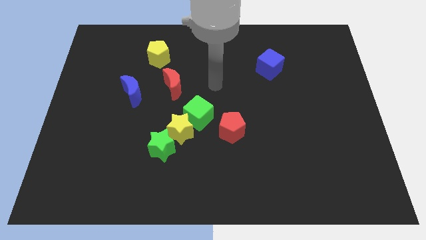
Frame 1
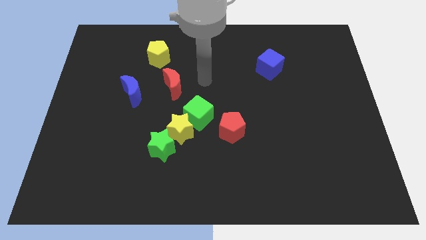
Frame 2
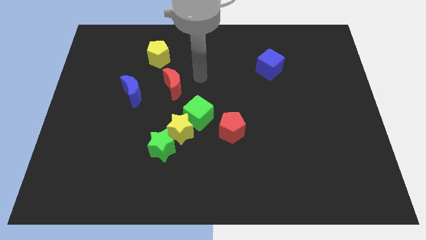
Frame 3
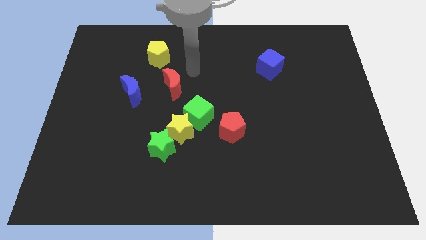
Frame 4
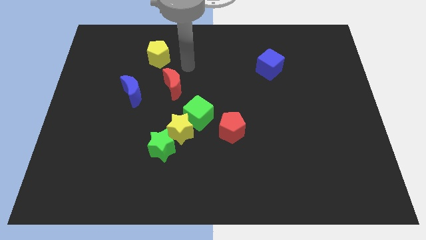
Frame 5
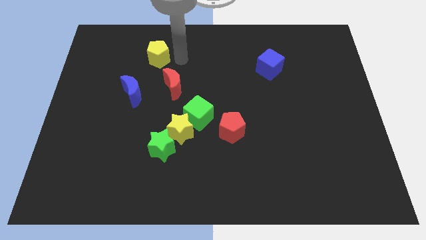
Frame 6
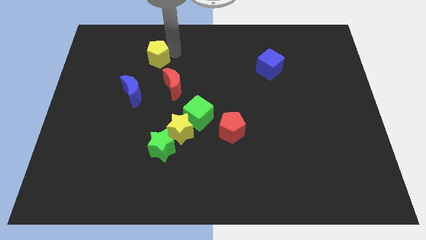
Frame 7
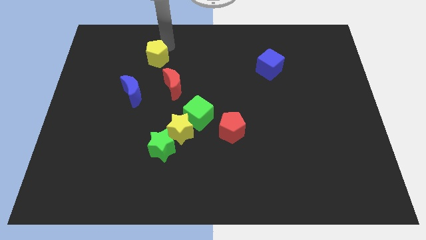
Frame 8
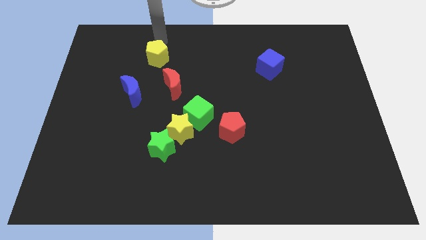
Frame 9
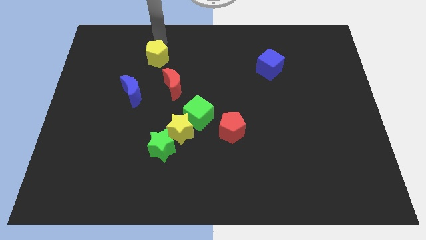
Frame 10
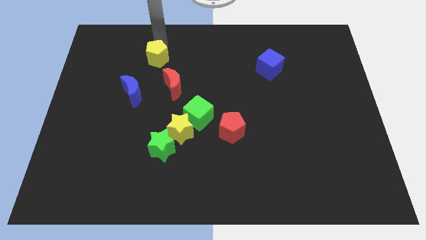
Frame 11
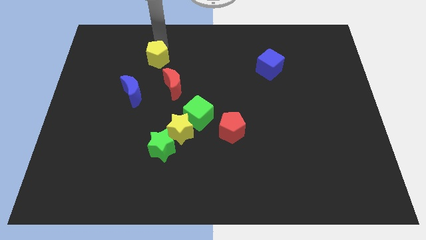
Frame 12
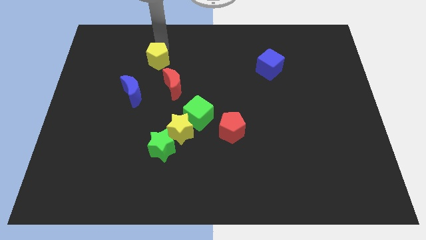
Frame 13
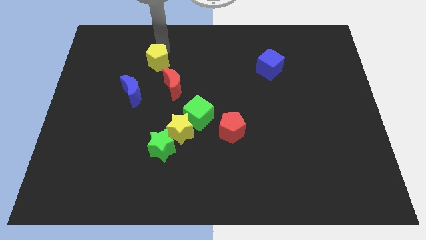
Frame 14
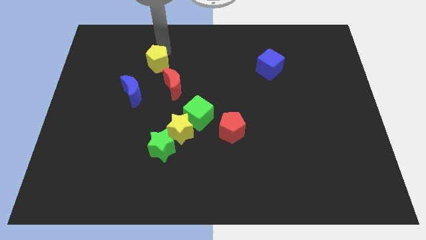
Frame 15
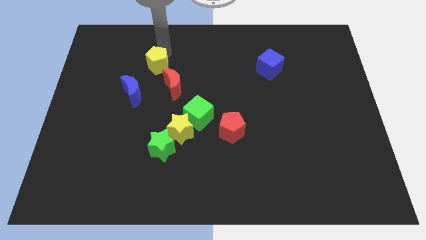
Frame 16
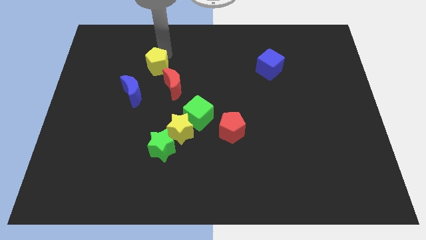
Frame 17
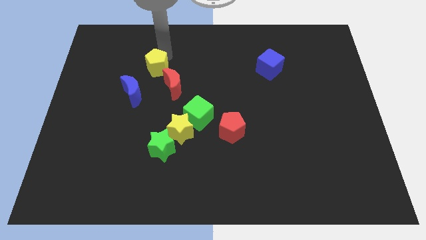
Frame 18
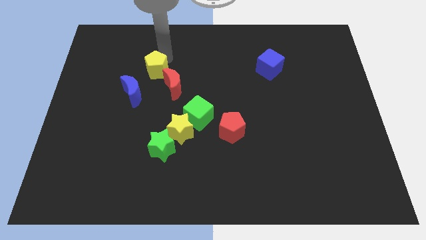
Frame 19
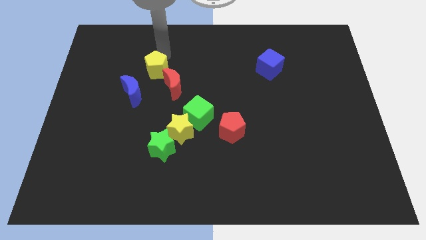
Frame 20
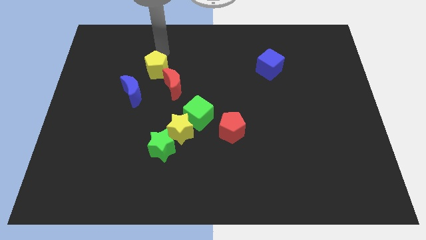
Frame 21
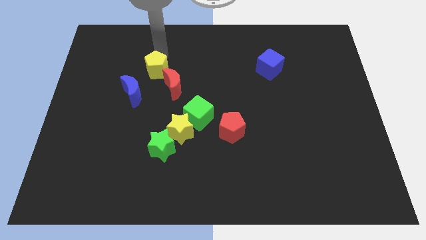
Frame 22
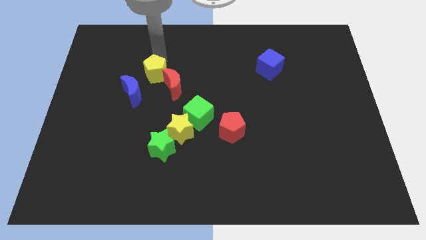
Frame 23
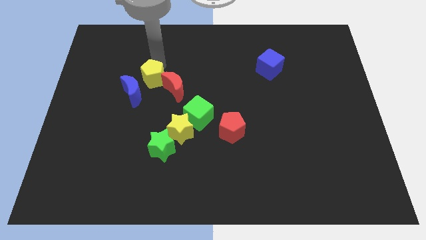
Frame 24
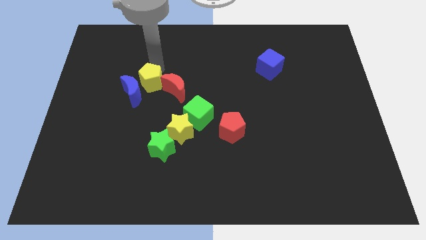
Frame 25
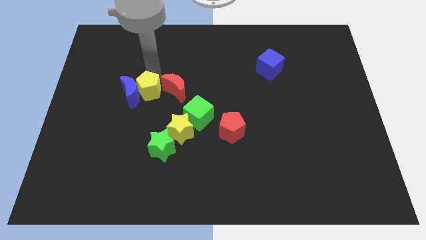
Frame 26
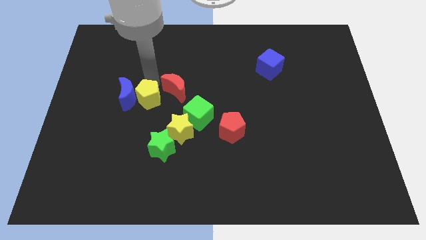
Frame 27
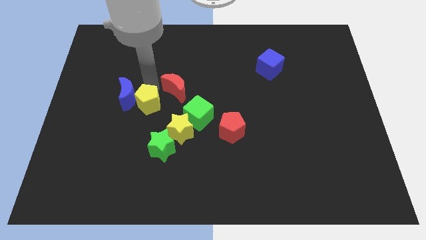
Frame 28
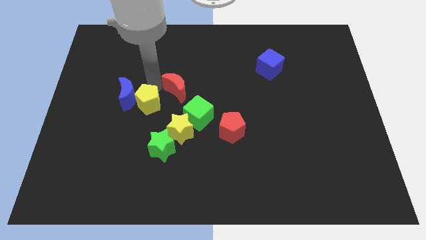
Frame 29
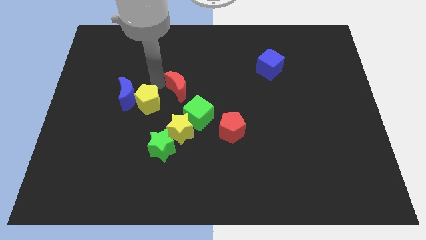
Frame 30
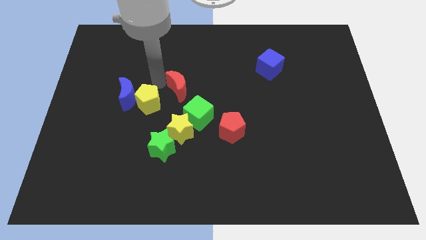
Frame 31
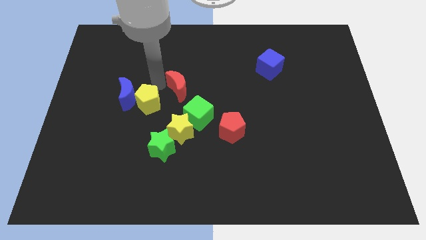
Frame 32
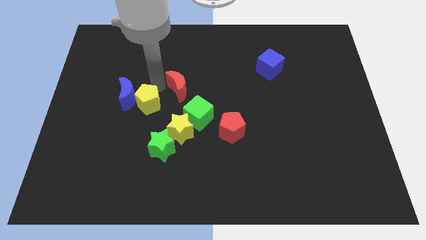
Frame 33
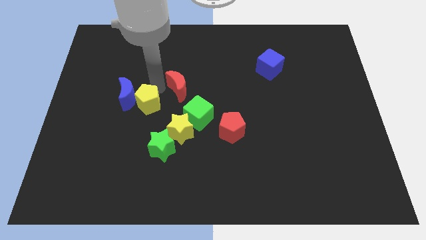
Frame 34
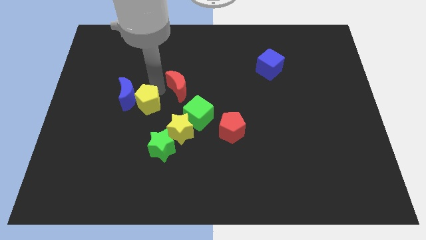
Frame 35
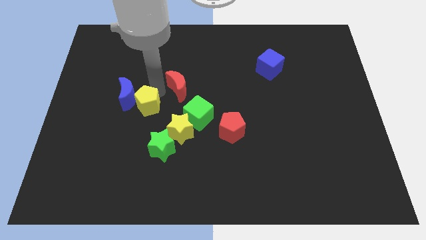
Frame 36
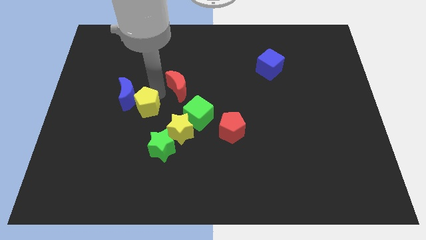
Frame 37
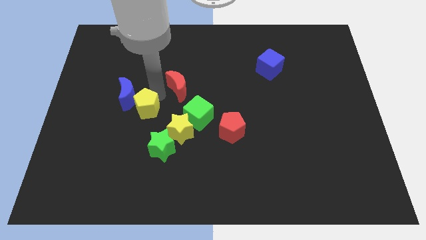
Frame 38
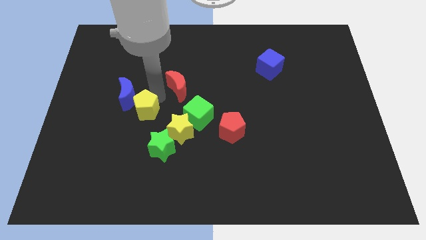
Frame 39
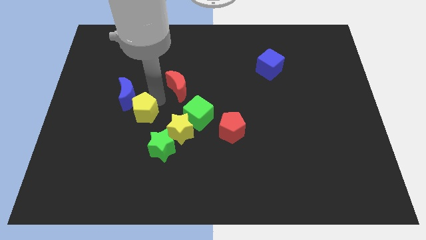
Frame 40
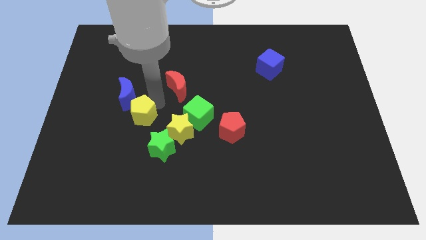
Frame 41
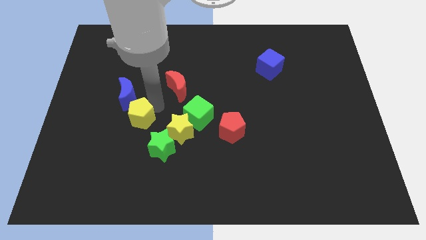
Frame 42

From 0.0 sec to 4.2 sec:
slide the yellow pentagon down

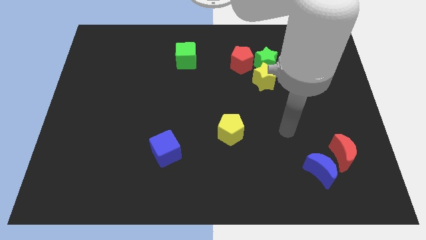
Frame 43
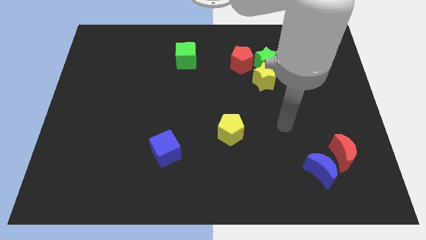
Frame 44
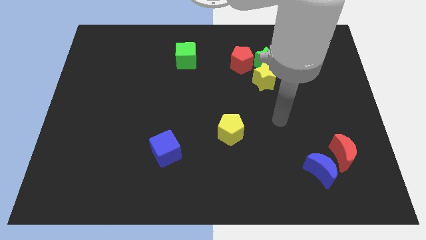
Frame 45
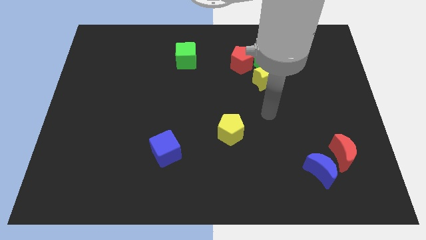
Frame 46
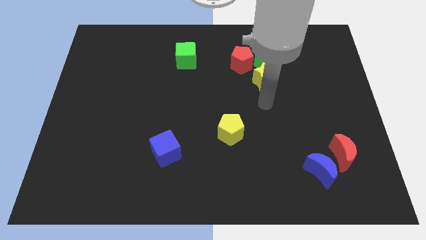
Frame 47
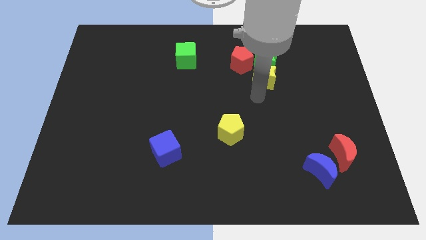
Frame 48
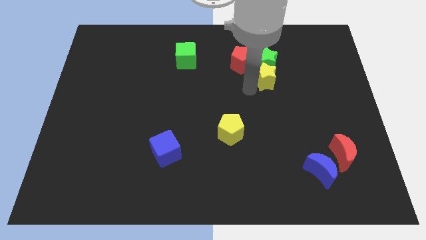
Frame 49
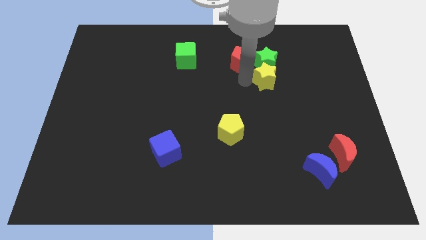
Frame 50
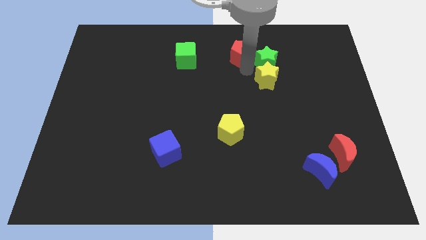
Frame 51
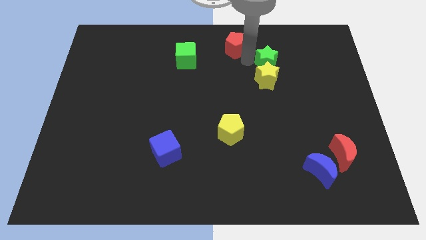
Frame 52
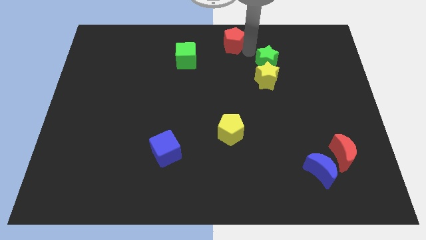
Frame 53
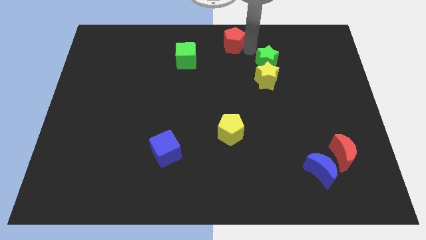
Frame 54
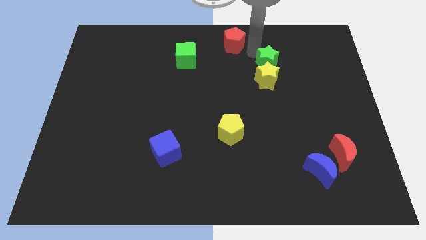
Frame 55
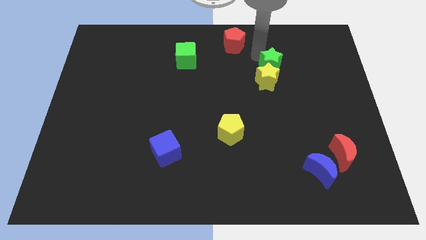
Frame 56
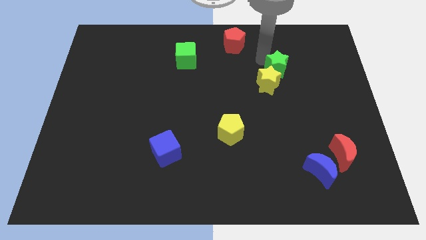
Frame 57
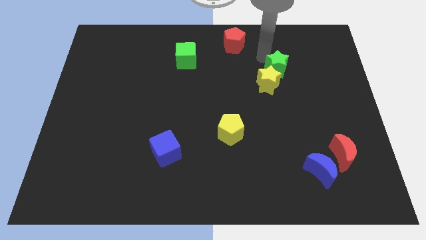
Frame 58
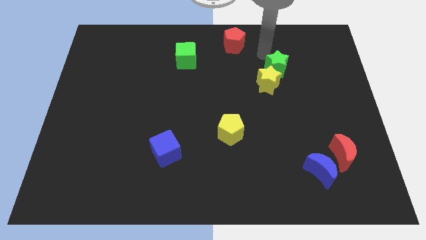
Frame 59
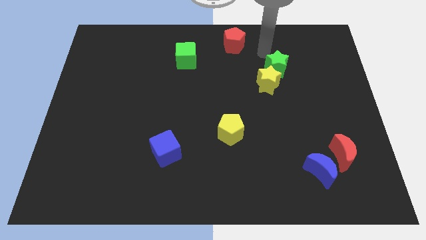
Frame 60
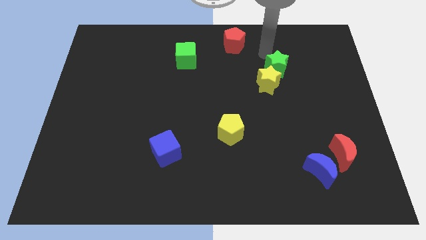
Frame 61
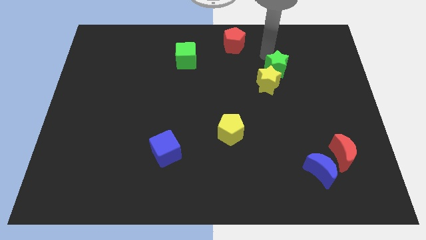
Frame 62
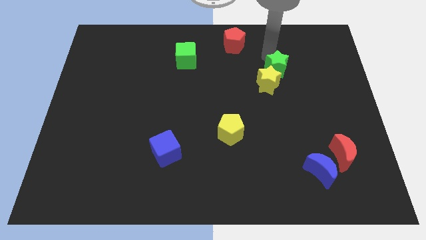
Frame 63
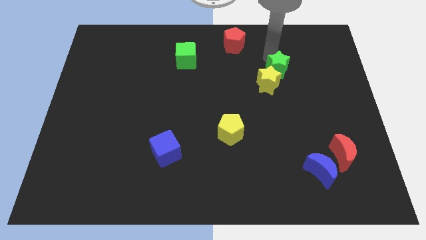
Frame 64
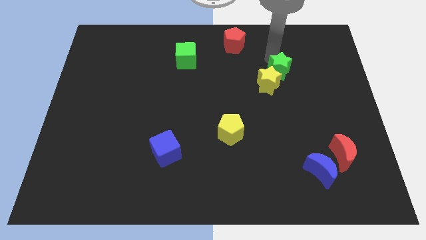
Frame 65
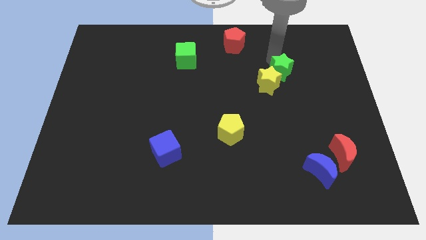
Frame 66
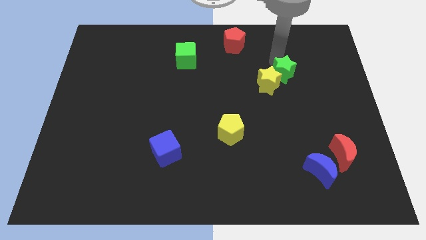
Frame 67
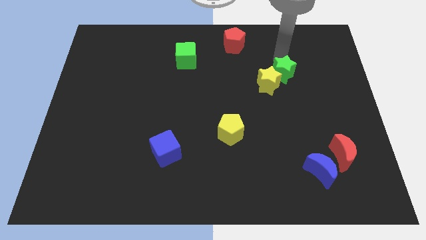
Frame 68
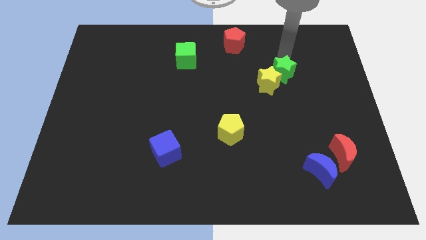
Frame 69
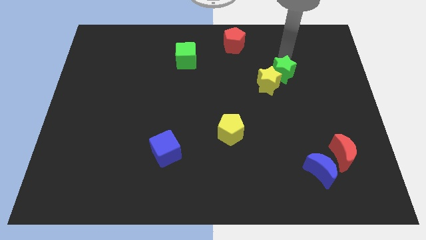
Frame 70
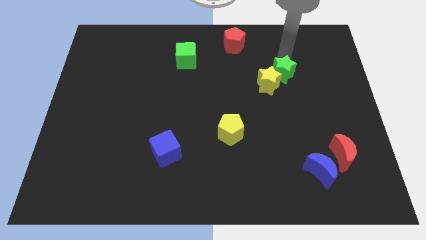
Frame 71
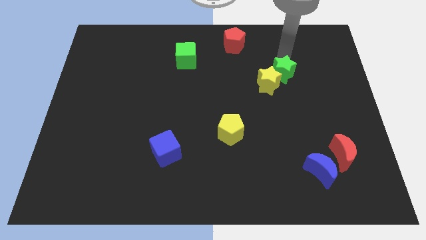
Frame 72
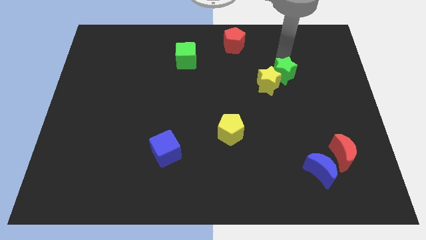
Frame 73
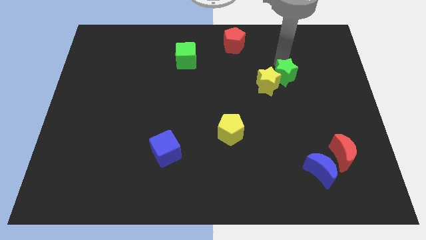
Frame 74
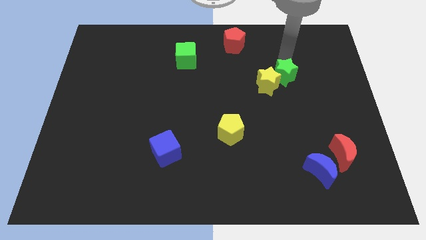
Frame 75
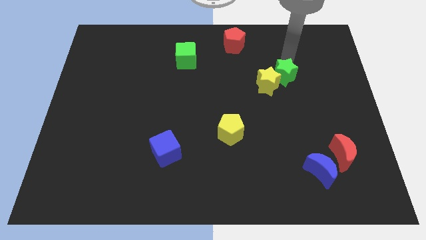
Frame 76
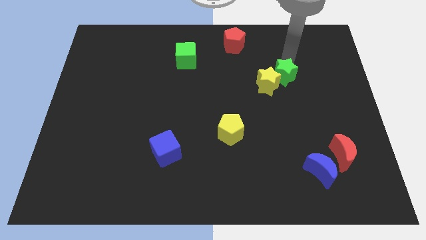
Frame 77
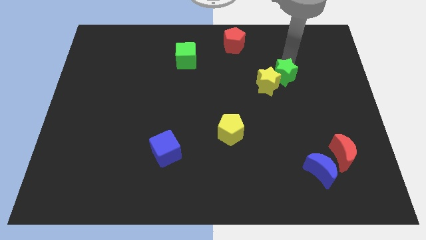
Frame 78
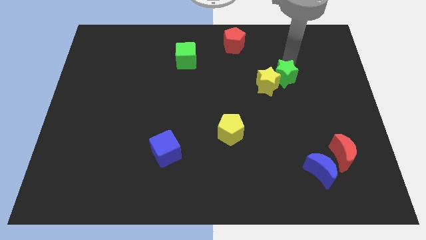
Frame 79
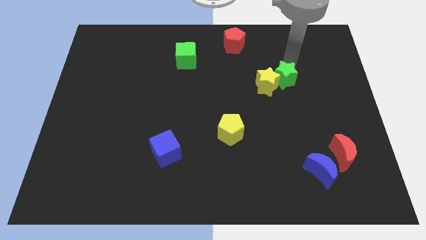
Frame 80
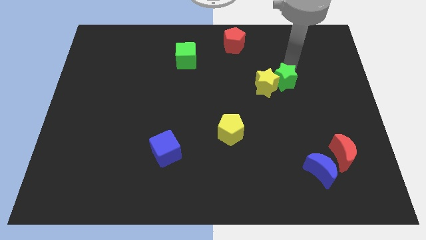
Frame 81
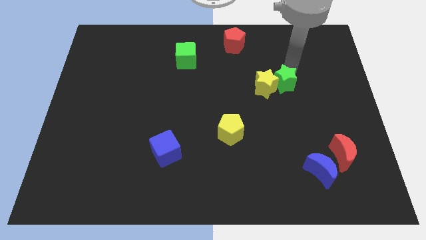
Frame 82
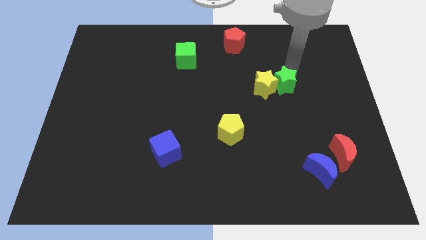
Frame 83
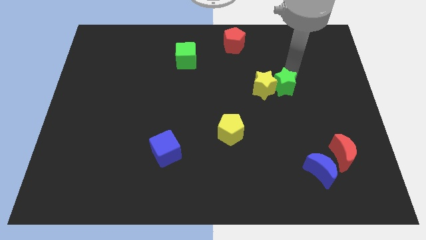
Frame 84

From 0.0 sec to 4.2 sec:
slide the green star down a little bit
